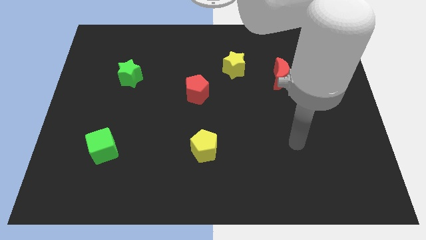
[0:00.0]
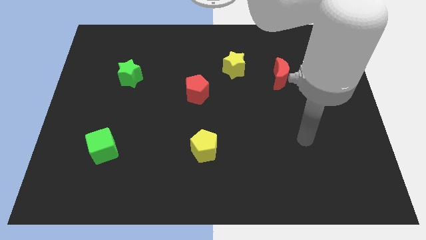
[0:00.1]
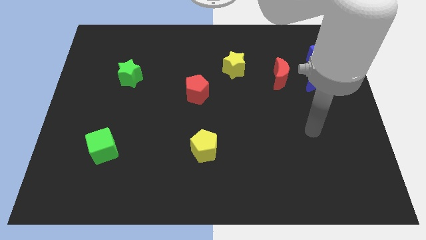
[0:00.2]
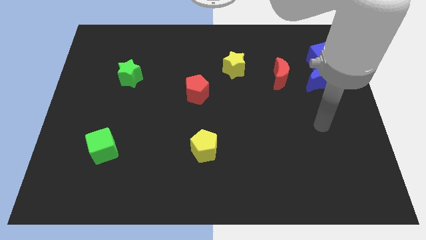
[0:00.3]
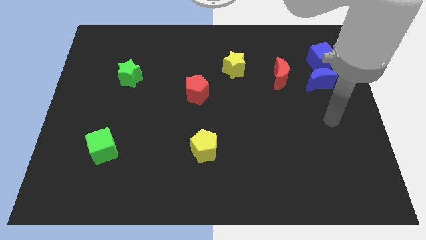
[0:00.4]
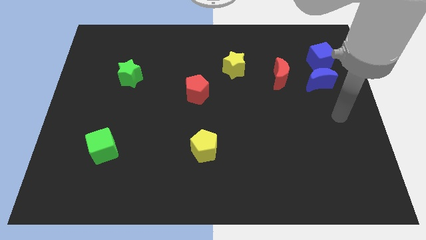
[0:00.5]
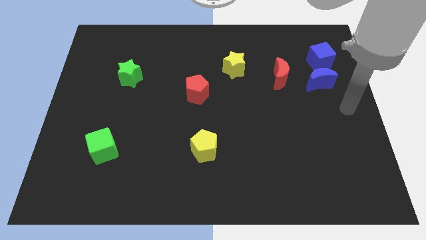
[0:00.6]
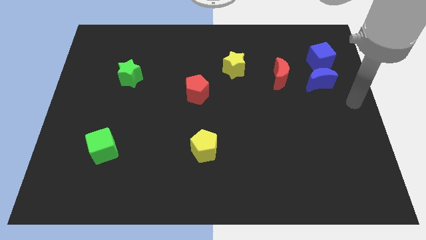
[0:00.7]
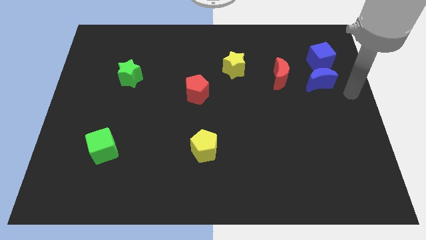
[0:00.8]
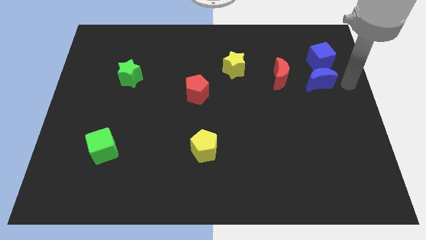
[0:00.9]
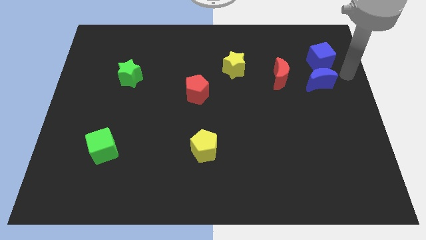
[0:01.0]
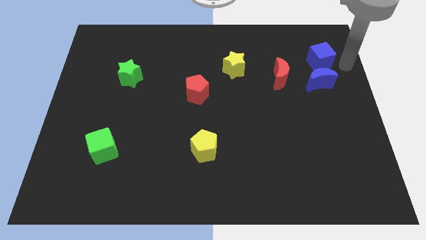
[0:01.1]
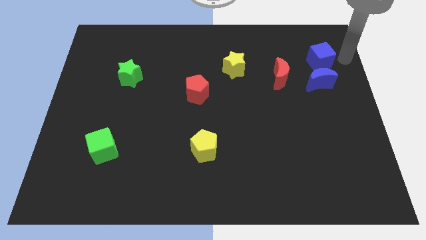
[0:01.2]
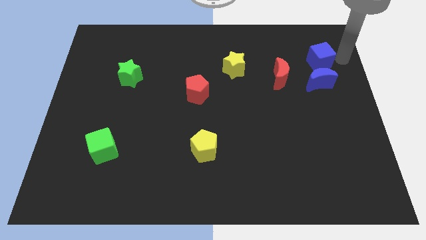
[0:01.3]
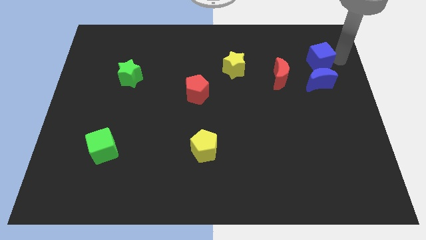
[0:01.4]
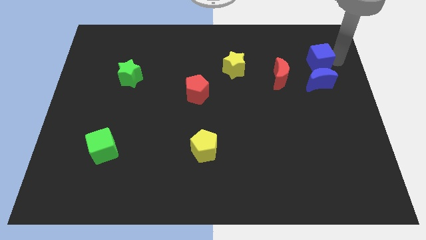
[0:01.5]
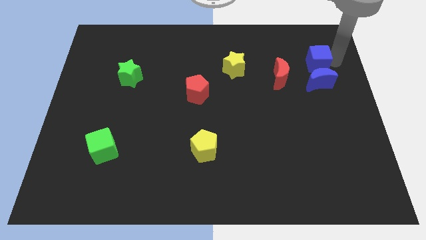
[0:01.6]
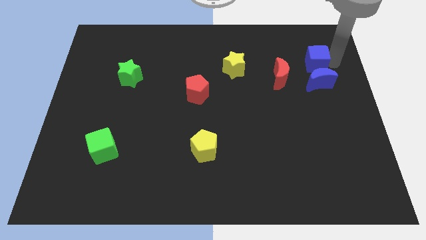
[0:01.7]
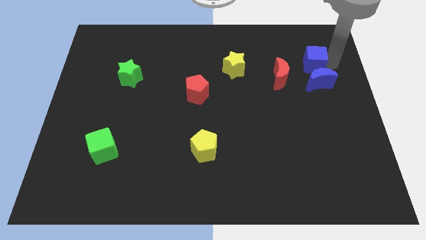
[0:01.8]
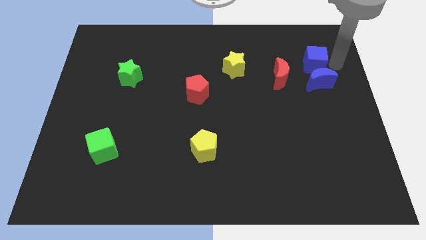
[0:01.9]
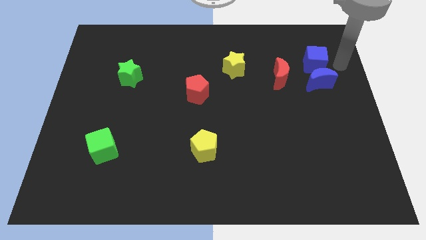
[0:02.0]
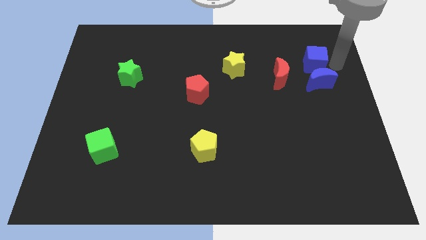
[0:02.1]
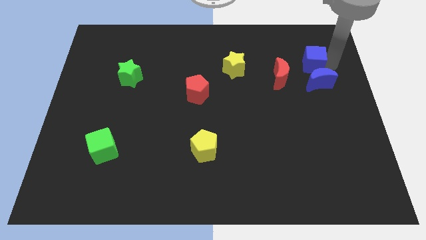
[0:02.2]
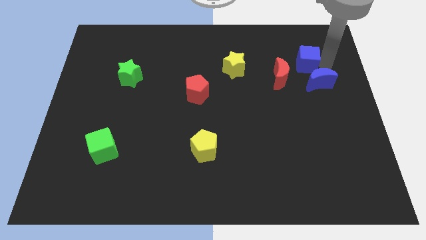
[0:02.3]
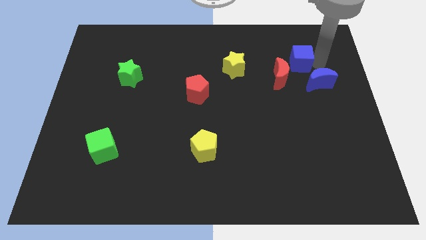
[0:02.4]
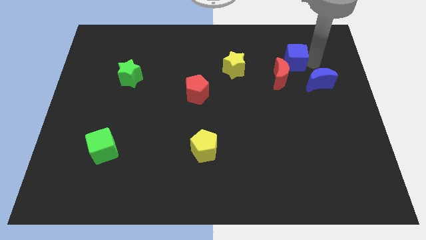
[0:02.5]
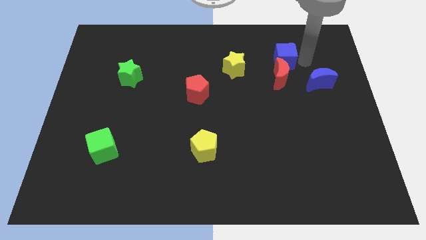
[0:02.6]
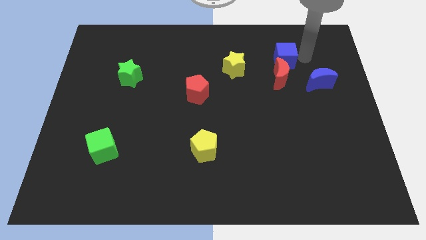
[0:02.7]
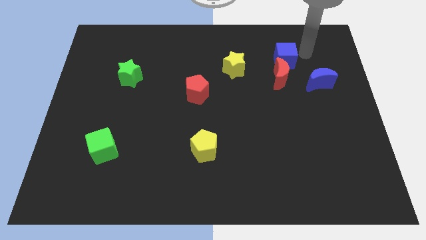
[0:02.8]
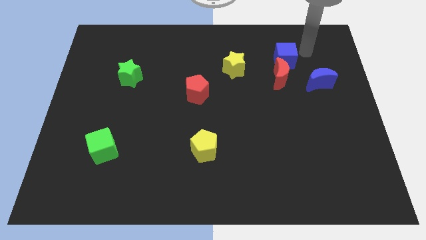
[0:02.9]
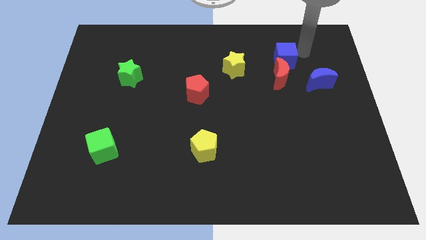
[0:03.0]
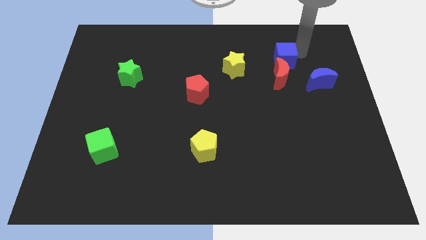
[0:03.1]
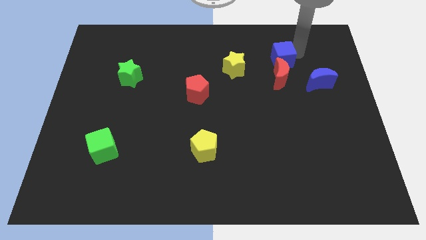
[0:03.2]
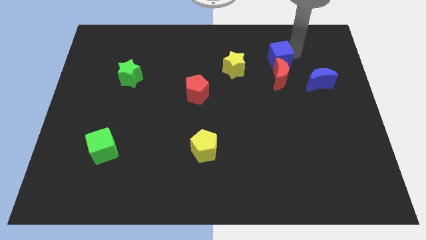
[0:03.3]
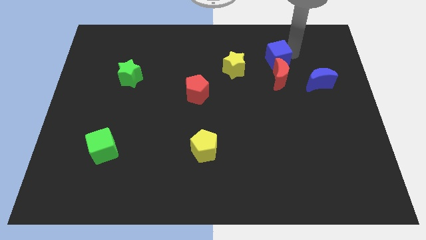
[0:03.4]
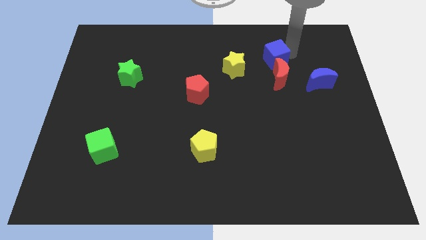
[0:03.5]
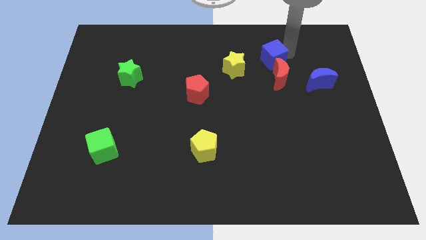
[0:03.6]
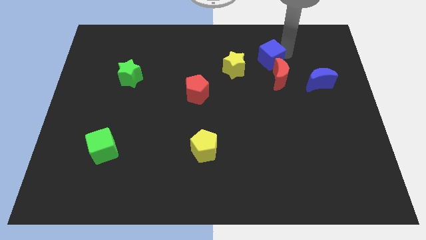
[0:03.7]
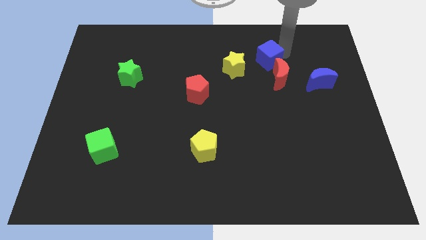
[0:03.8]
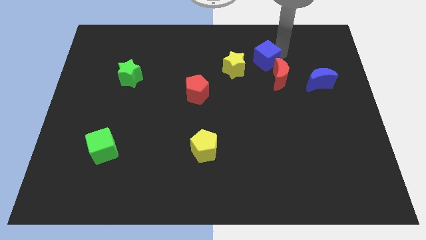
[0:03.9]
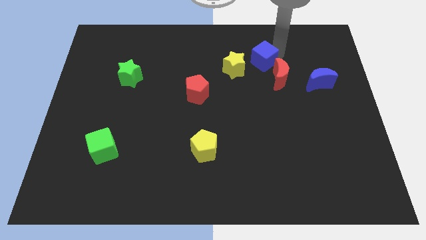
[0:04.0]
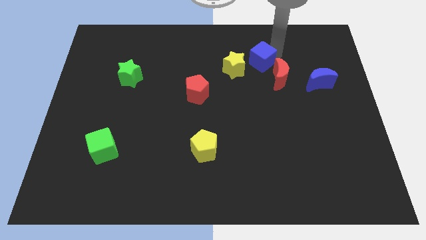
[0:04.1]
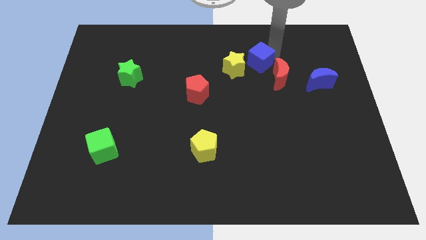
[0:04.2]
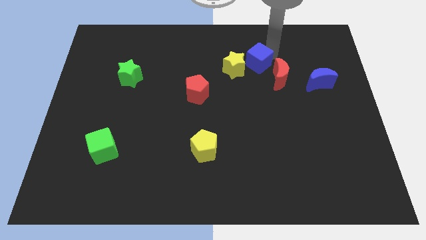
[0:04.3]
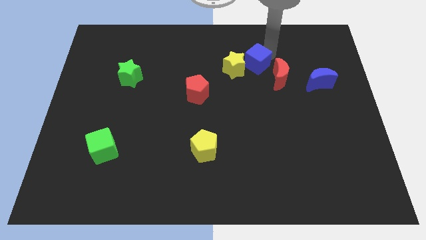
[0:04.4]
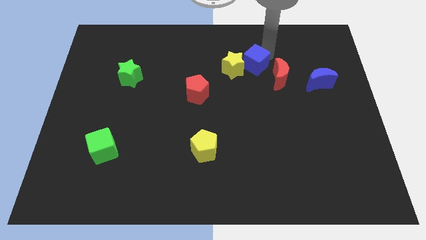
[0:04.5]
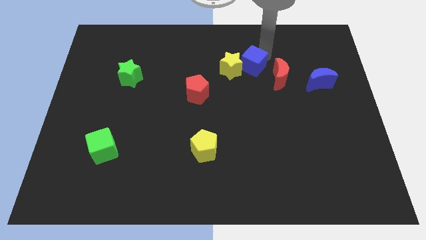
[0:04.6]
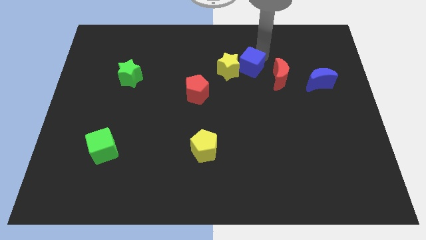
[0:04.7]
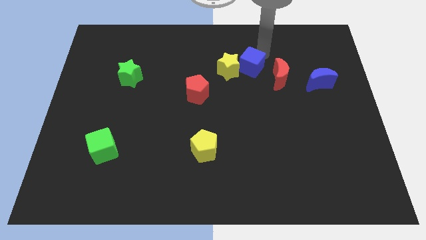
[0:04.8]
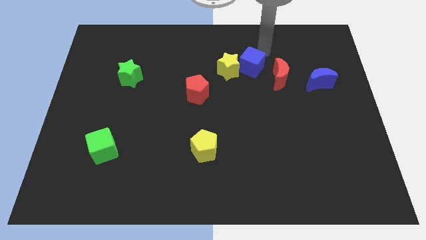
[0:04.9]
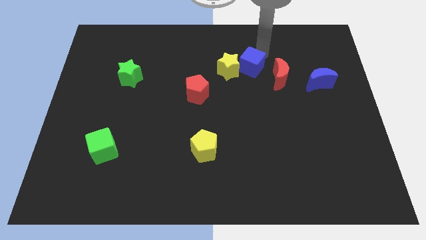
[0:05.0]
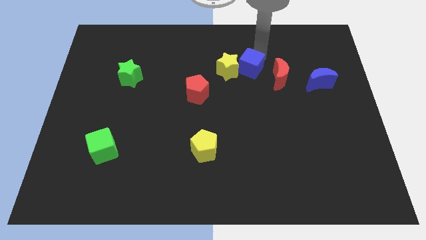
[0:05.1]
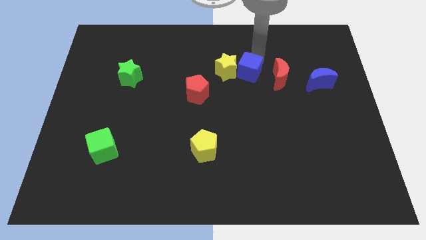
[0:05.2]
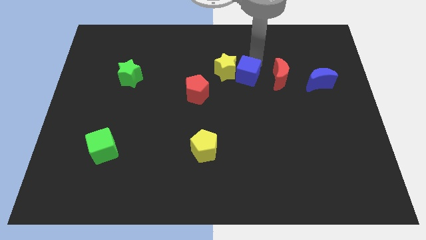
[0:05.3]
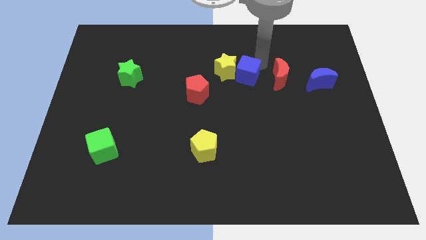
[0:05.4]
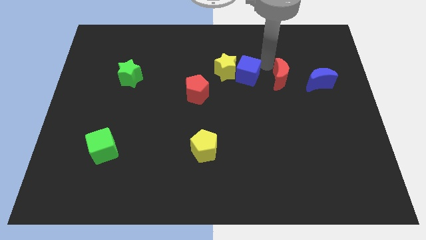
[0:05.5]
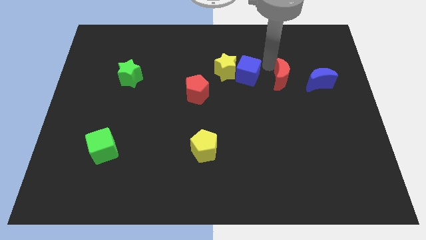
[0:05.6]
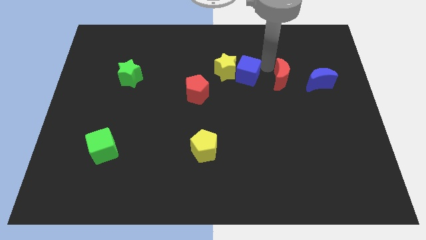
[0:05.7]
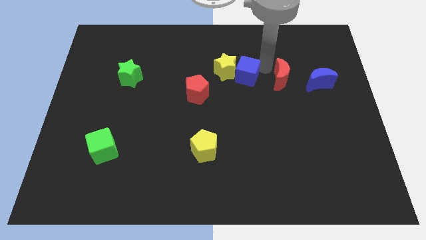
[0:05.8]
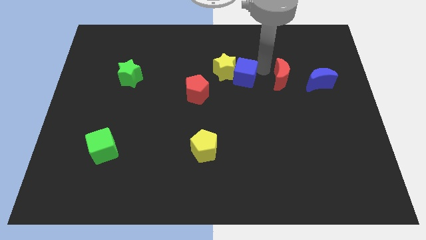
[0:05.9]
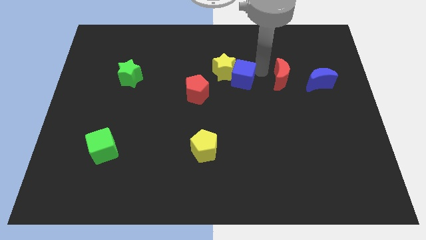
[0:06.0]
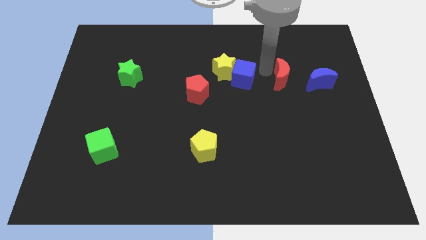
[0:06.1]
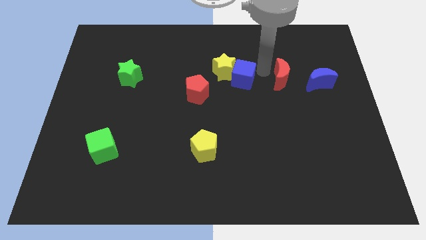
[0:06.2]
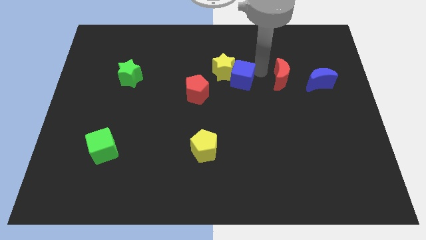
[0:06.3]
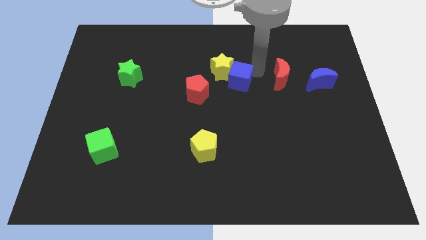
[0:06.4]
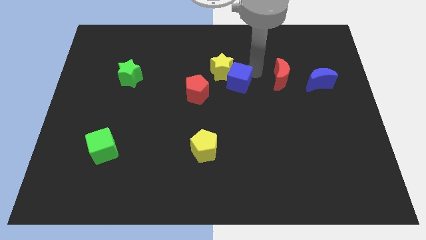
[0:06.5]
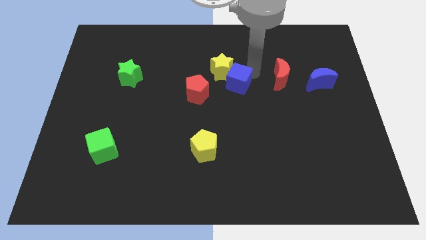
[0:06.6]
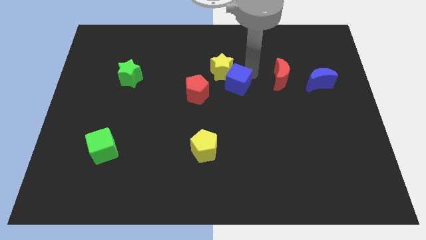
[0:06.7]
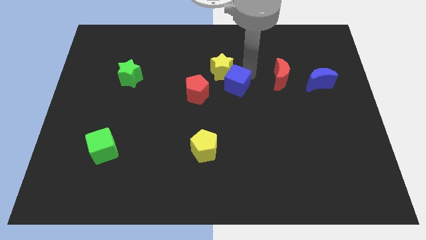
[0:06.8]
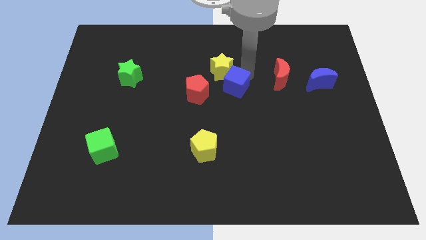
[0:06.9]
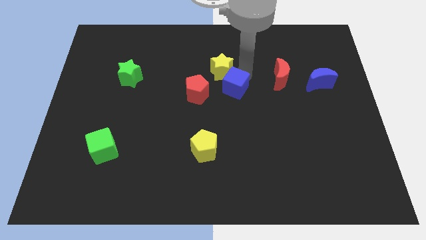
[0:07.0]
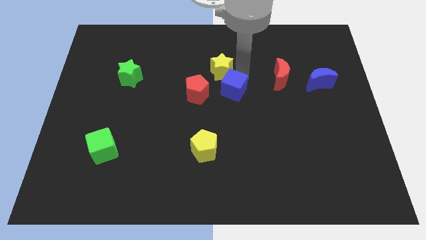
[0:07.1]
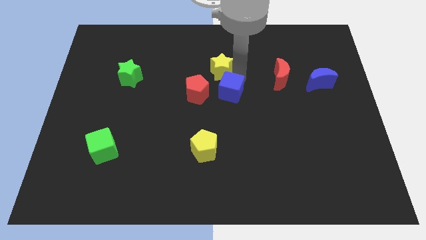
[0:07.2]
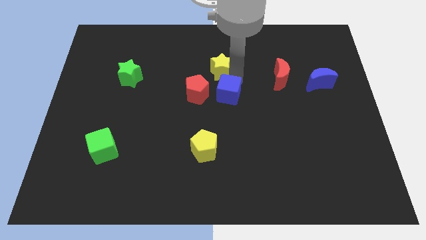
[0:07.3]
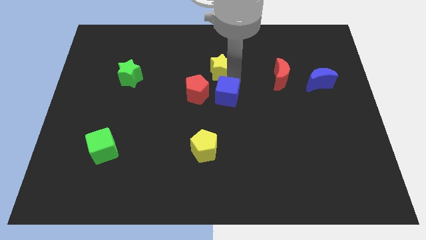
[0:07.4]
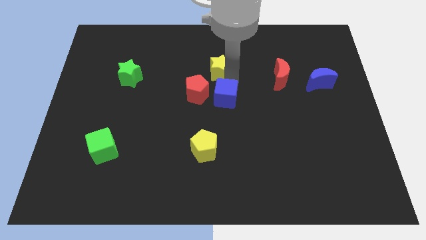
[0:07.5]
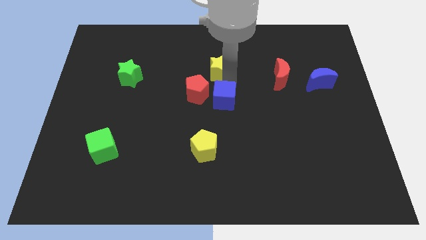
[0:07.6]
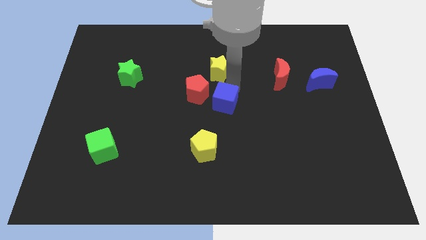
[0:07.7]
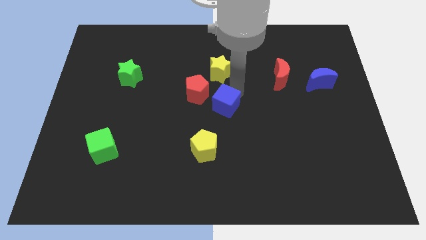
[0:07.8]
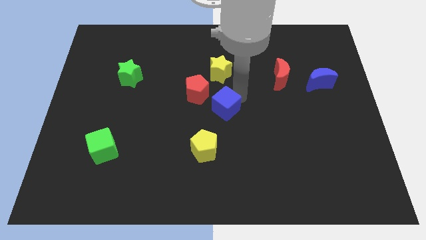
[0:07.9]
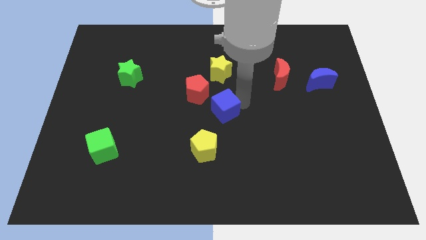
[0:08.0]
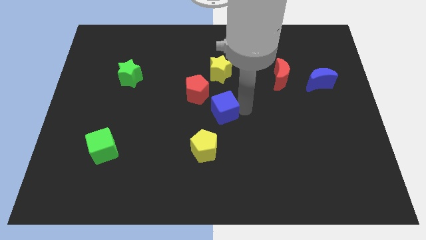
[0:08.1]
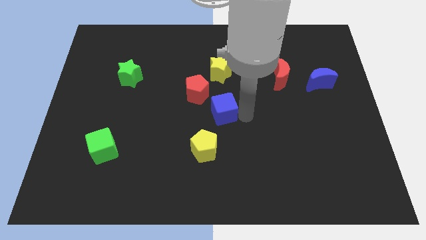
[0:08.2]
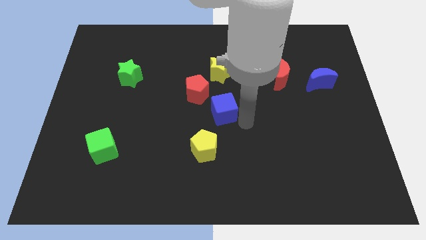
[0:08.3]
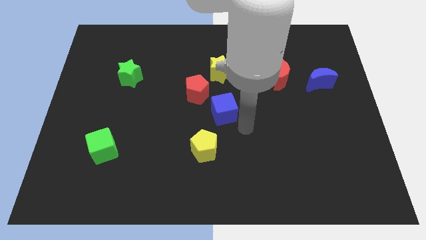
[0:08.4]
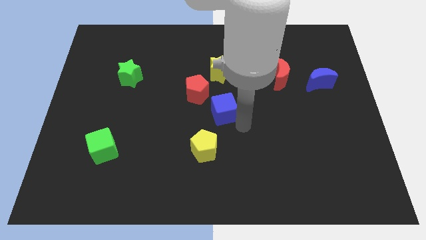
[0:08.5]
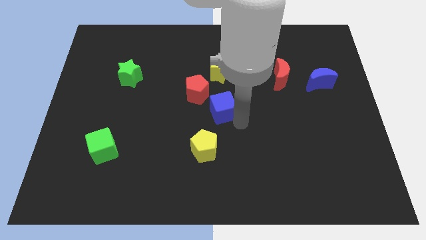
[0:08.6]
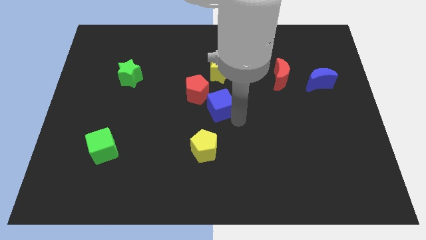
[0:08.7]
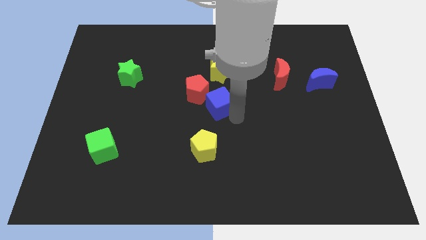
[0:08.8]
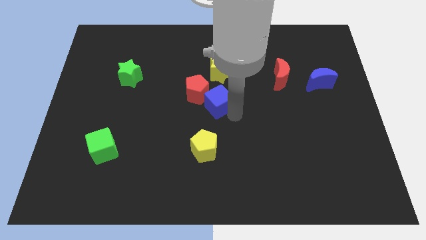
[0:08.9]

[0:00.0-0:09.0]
put the blue cube close to the red pentagon
